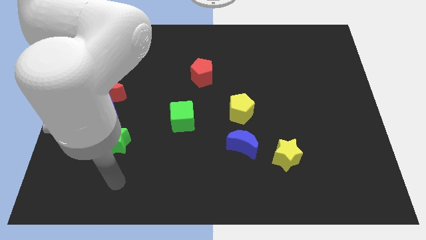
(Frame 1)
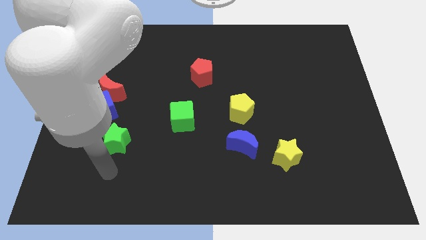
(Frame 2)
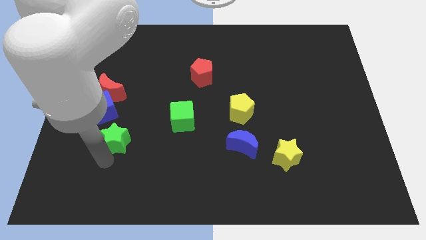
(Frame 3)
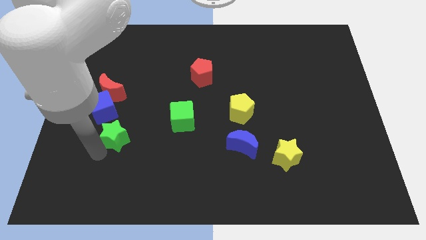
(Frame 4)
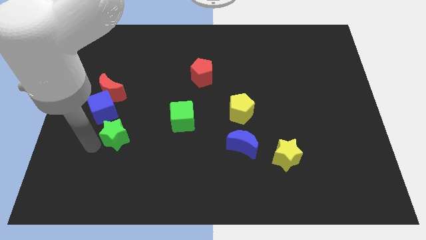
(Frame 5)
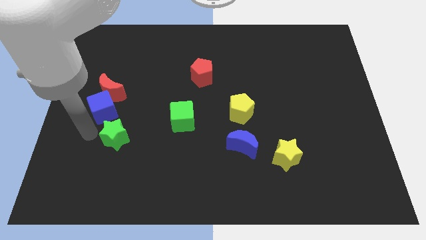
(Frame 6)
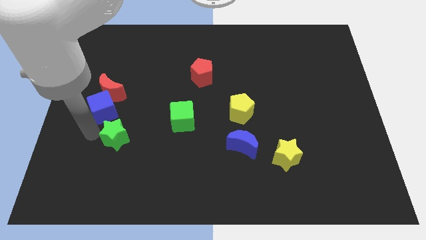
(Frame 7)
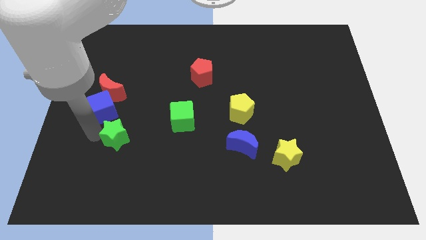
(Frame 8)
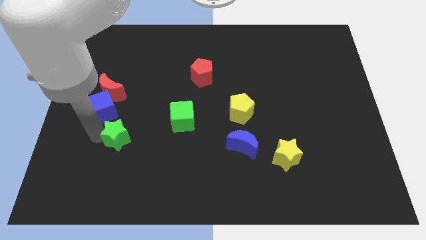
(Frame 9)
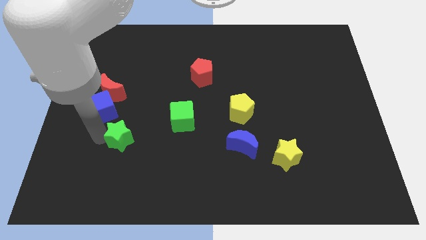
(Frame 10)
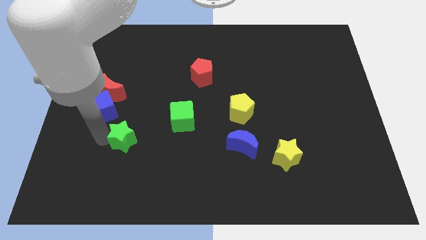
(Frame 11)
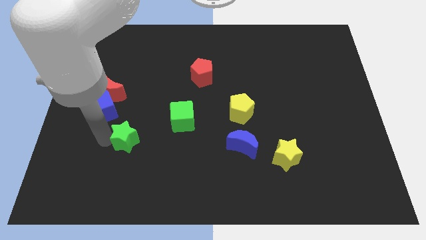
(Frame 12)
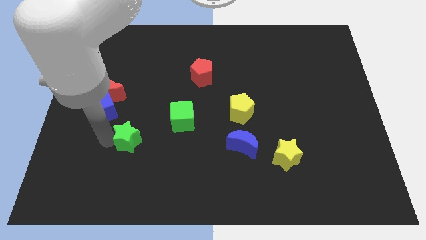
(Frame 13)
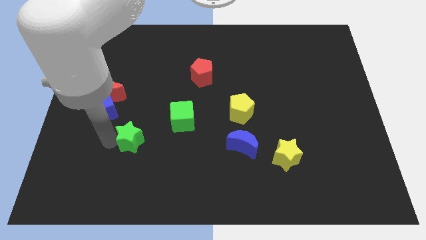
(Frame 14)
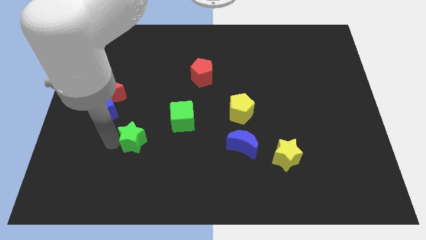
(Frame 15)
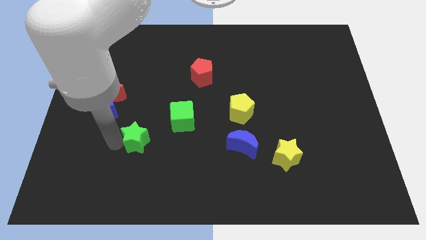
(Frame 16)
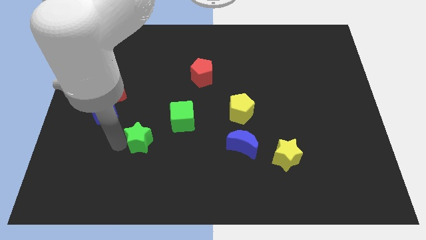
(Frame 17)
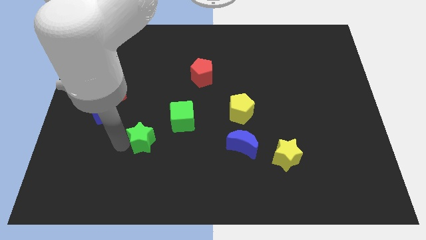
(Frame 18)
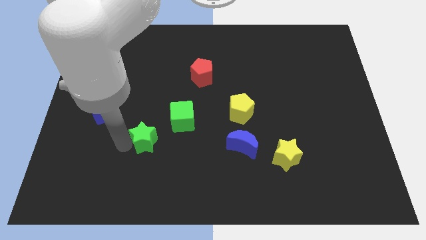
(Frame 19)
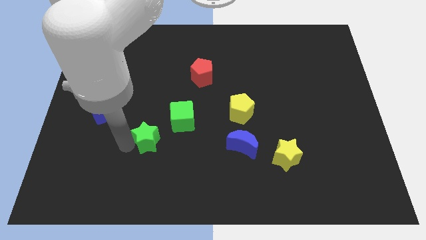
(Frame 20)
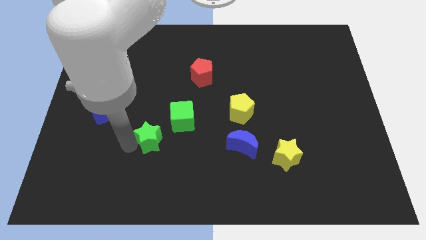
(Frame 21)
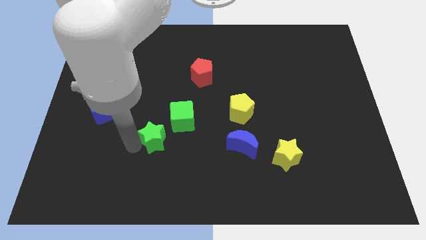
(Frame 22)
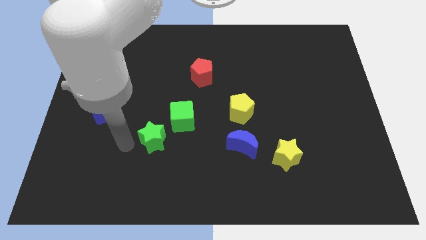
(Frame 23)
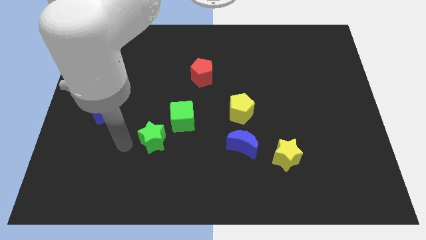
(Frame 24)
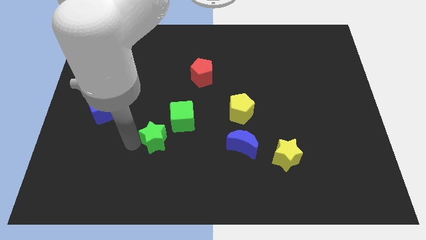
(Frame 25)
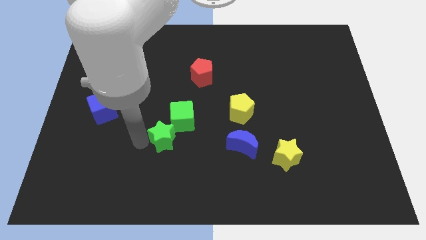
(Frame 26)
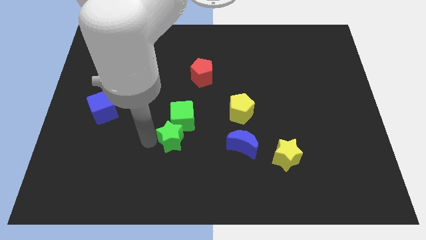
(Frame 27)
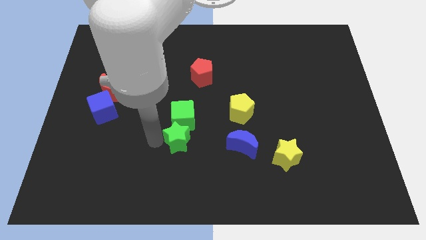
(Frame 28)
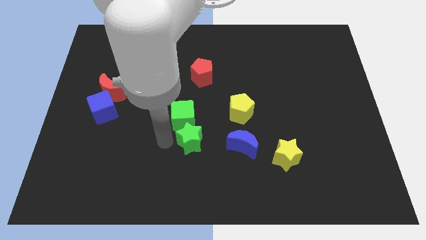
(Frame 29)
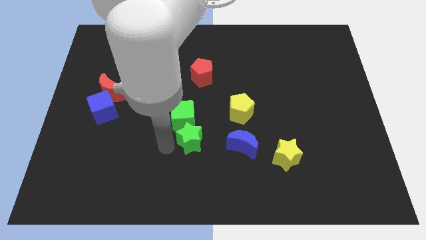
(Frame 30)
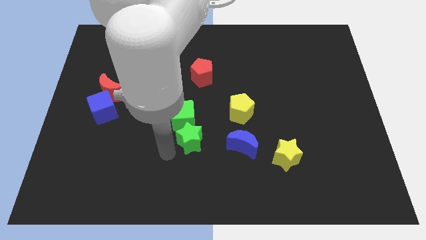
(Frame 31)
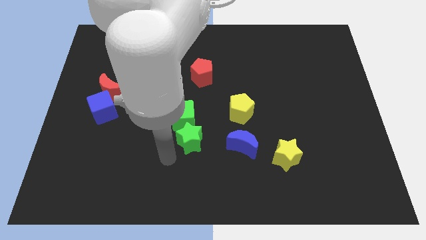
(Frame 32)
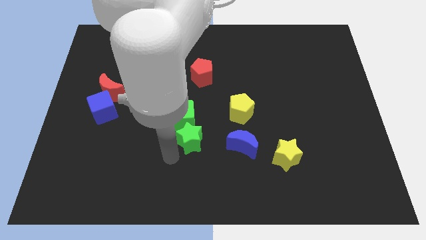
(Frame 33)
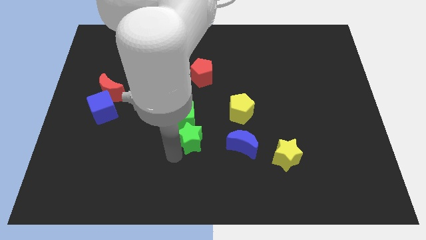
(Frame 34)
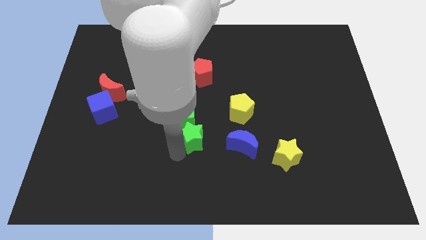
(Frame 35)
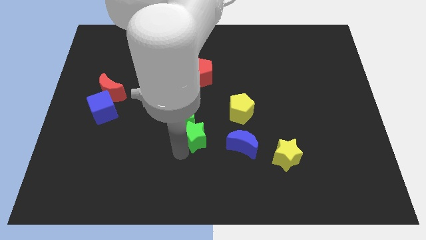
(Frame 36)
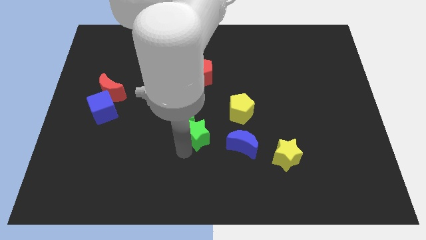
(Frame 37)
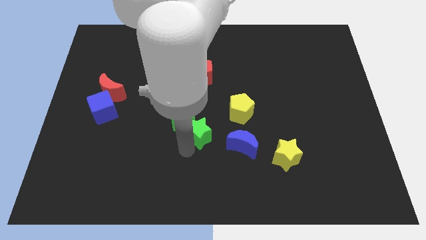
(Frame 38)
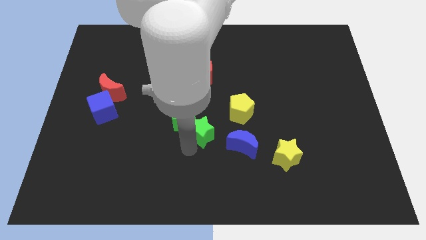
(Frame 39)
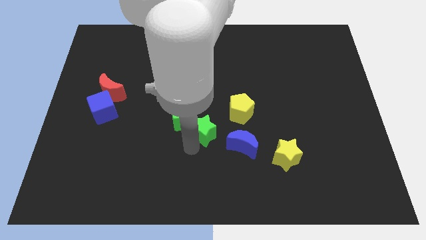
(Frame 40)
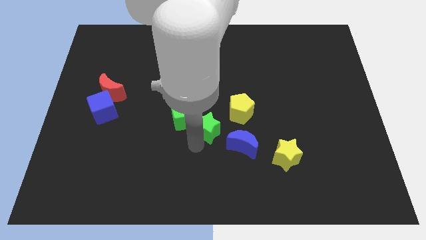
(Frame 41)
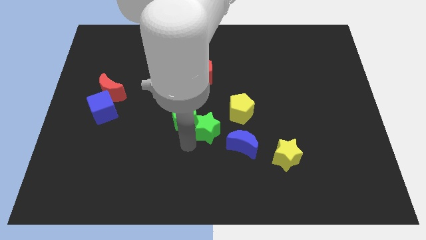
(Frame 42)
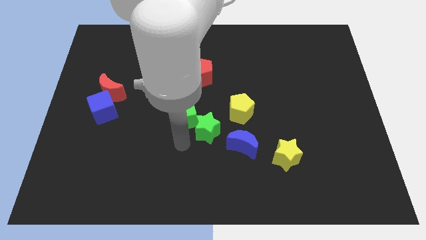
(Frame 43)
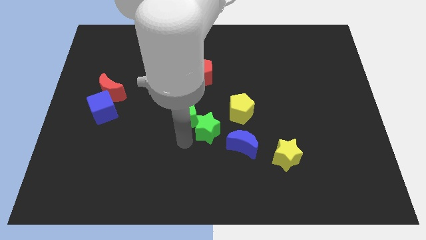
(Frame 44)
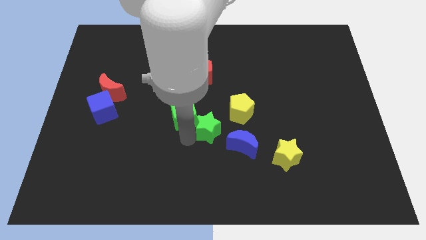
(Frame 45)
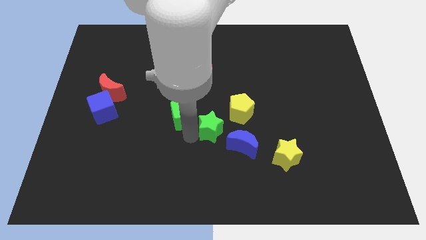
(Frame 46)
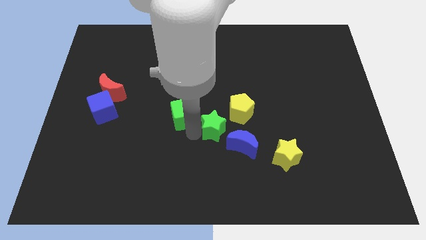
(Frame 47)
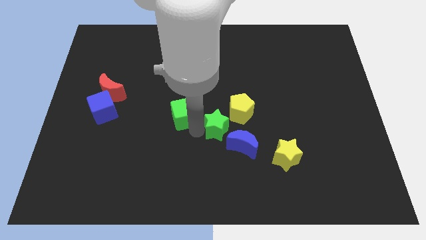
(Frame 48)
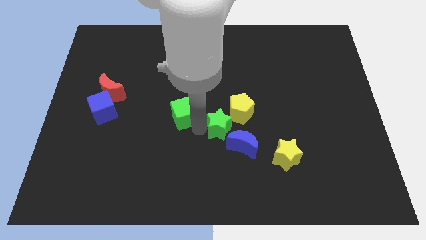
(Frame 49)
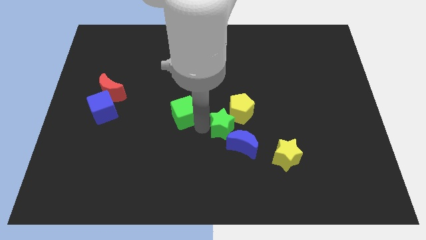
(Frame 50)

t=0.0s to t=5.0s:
push the green star close to the yellow pentagon

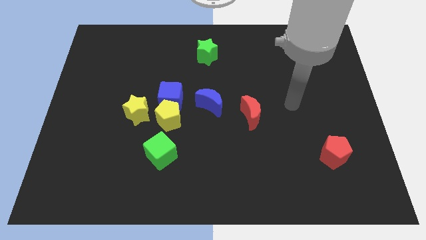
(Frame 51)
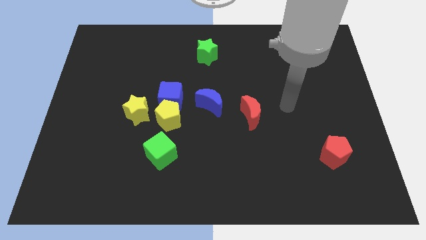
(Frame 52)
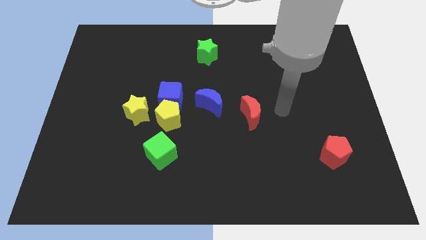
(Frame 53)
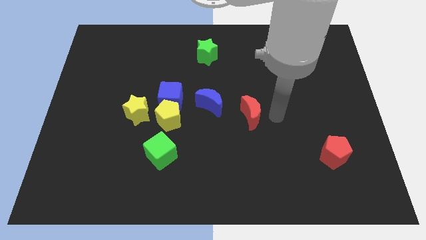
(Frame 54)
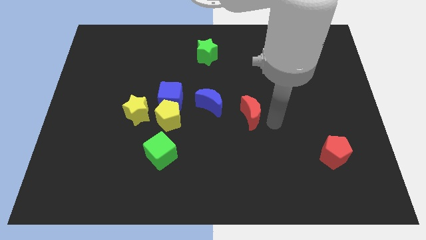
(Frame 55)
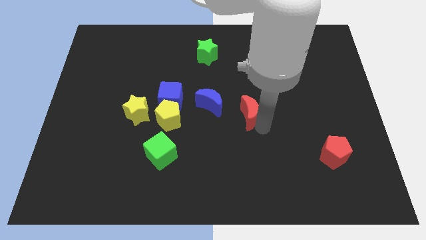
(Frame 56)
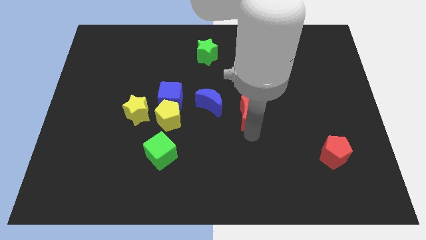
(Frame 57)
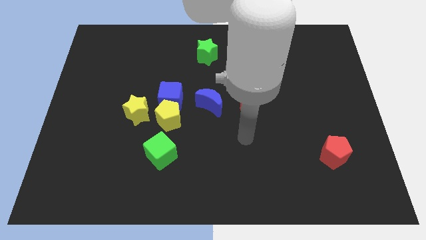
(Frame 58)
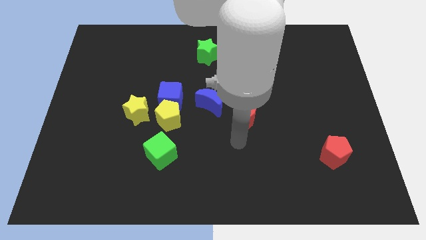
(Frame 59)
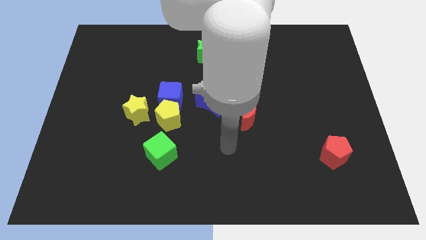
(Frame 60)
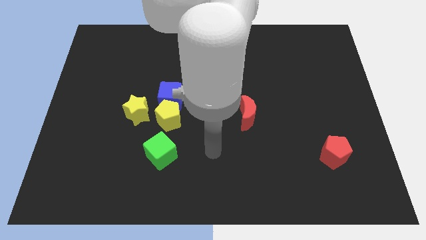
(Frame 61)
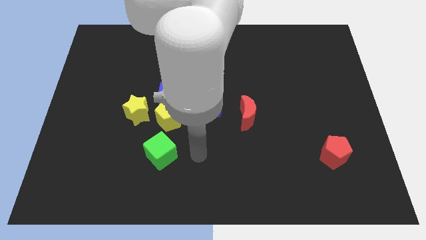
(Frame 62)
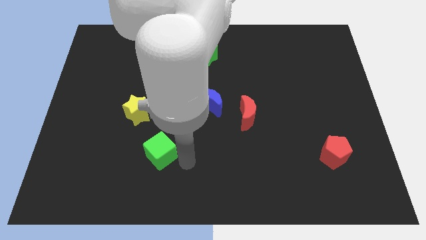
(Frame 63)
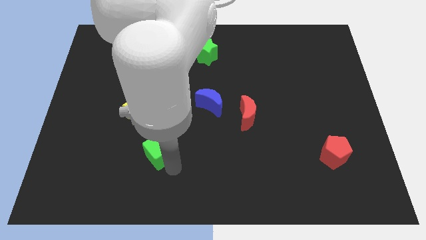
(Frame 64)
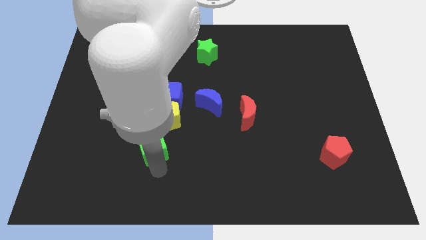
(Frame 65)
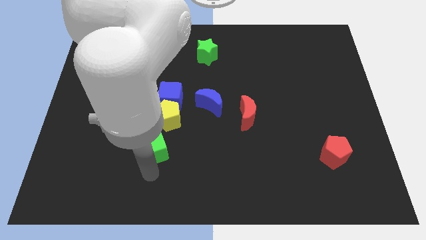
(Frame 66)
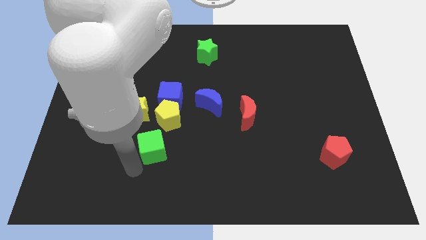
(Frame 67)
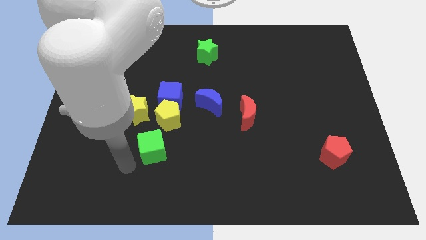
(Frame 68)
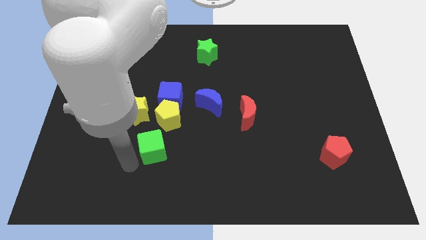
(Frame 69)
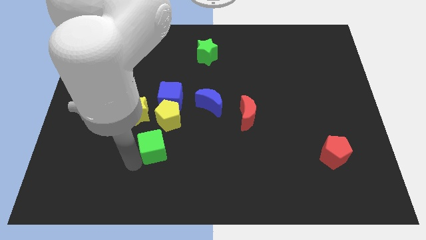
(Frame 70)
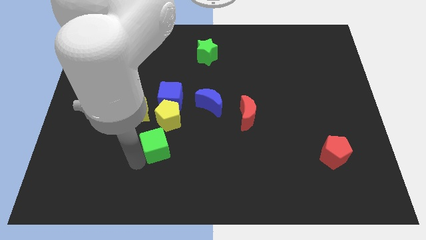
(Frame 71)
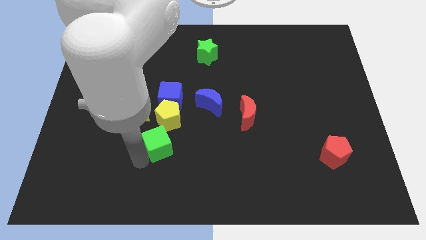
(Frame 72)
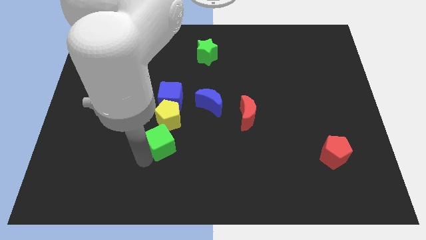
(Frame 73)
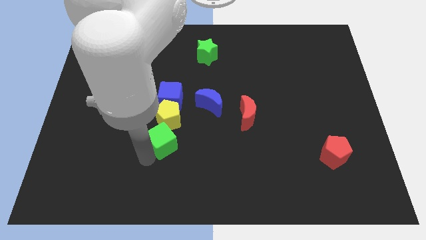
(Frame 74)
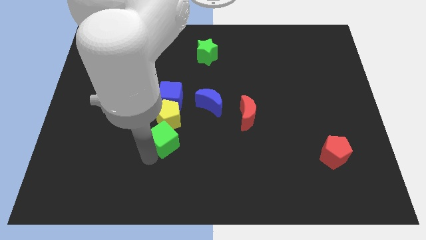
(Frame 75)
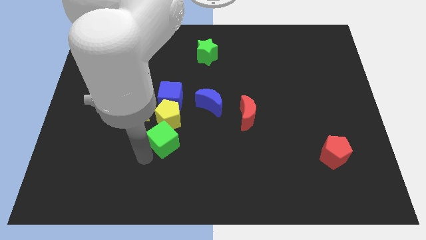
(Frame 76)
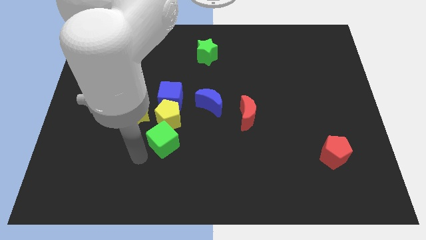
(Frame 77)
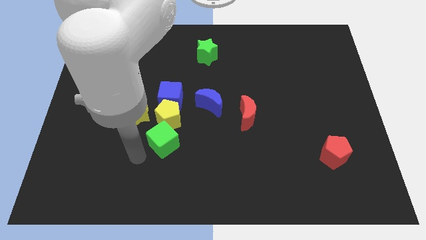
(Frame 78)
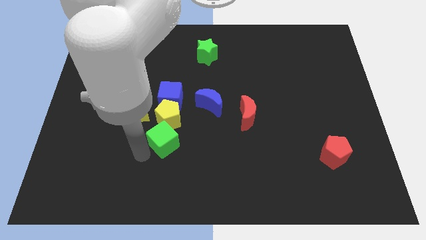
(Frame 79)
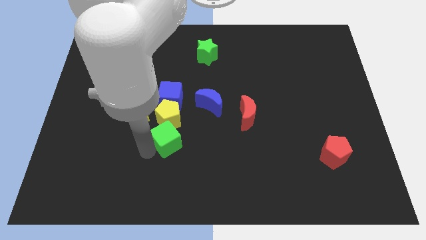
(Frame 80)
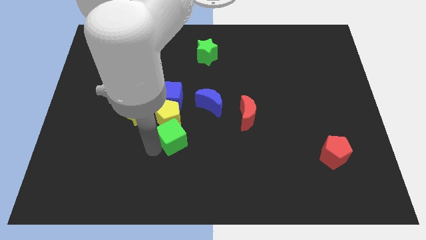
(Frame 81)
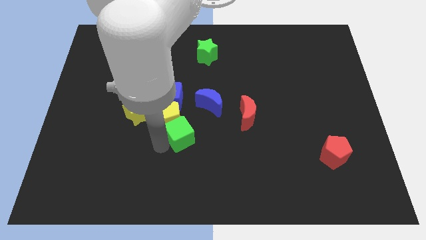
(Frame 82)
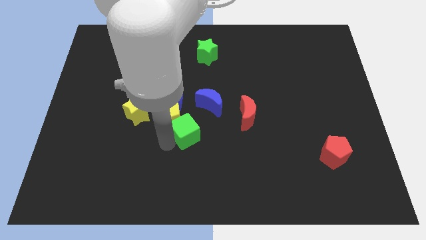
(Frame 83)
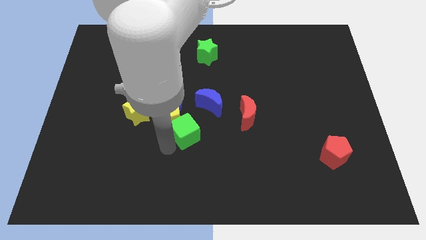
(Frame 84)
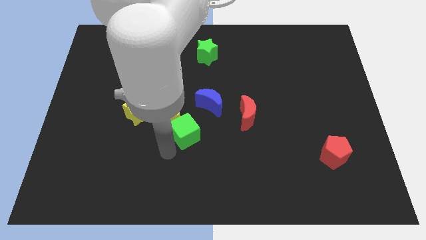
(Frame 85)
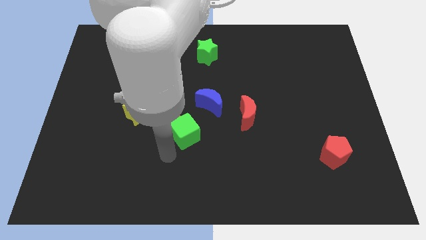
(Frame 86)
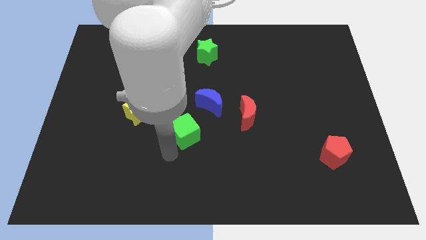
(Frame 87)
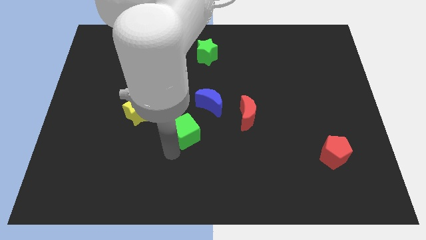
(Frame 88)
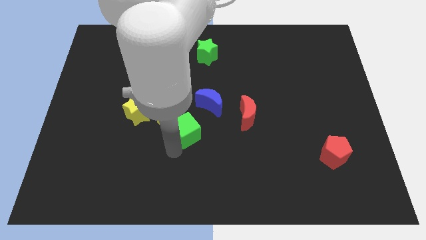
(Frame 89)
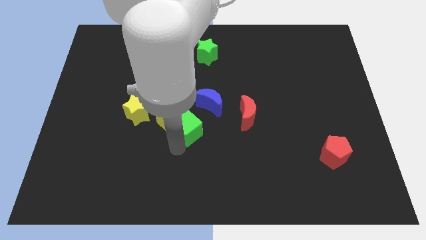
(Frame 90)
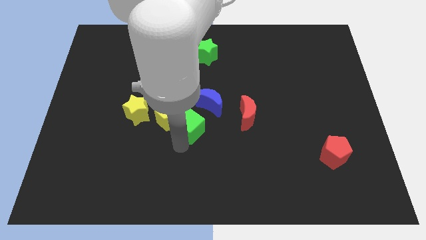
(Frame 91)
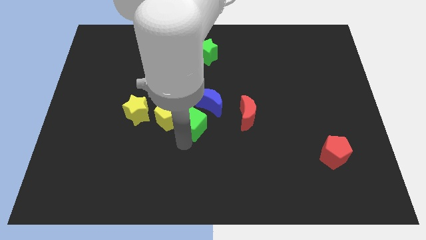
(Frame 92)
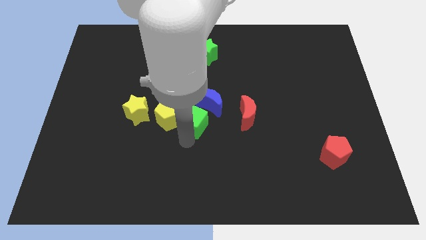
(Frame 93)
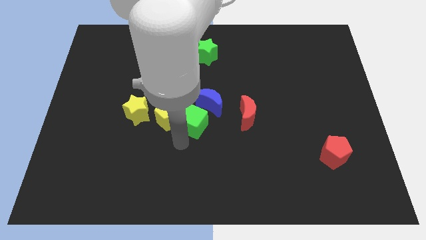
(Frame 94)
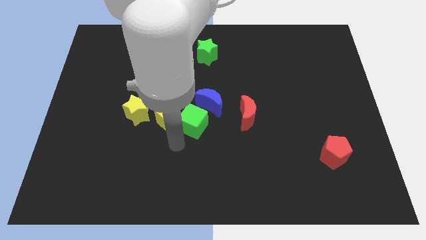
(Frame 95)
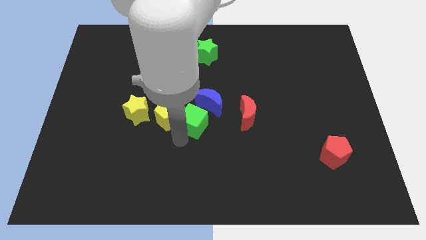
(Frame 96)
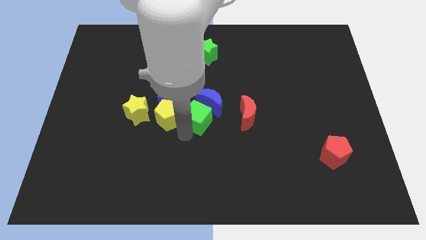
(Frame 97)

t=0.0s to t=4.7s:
push the green cube towards the blue moon
